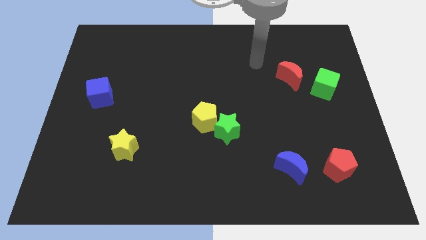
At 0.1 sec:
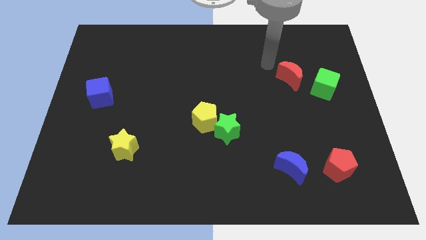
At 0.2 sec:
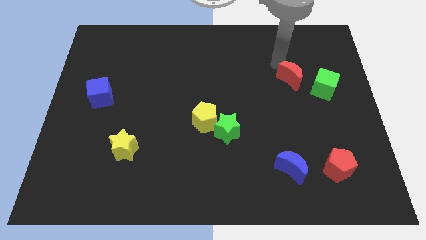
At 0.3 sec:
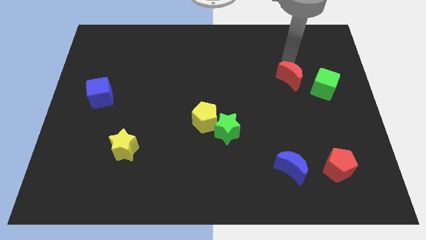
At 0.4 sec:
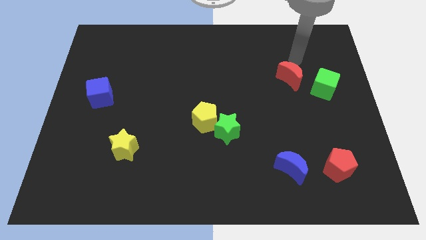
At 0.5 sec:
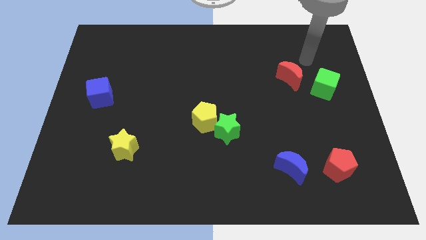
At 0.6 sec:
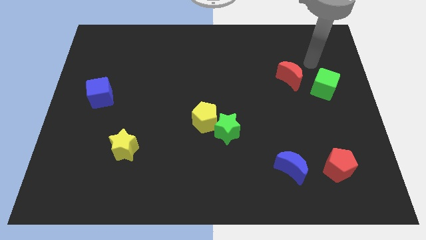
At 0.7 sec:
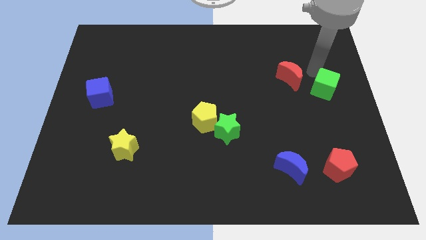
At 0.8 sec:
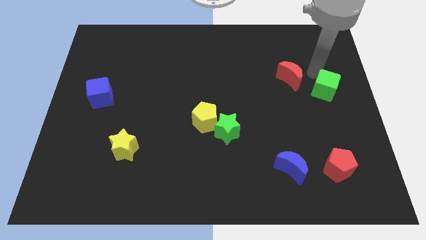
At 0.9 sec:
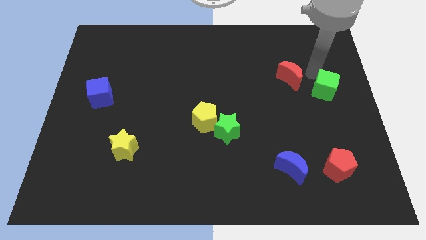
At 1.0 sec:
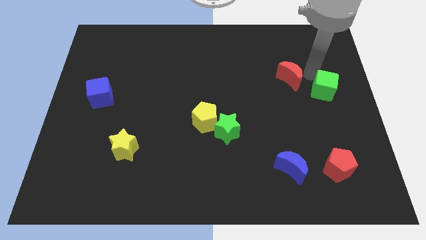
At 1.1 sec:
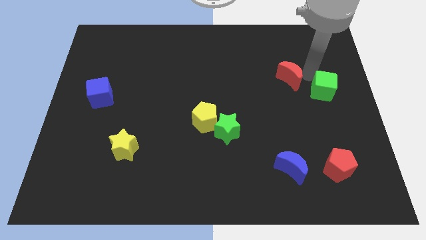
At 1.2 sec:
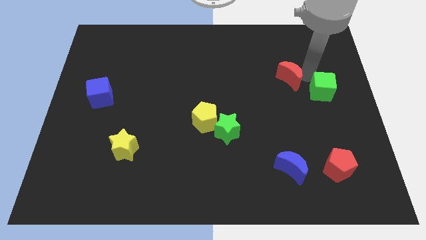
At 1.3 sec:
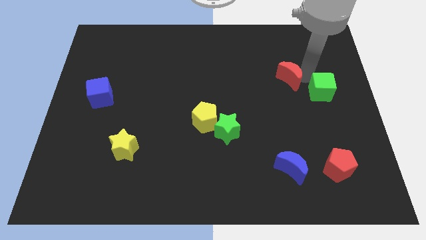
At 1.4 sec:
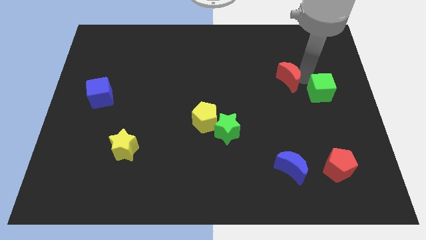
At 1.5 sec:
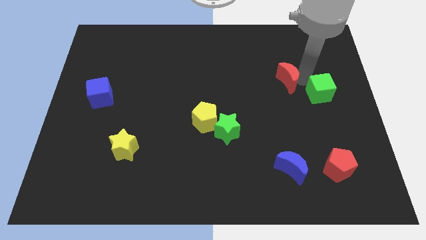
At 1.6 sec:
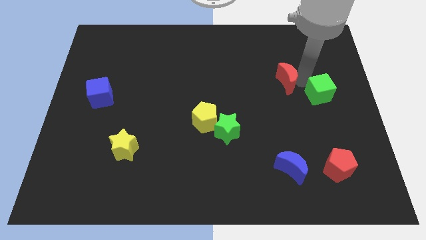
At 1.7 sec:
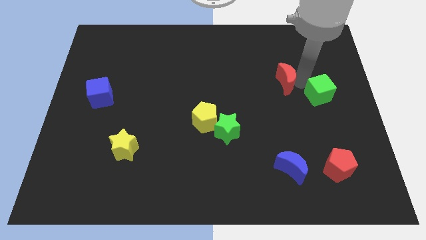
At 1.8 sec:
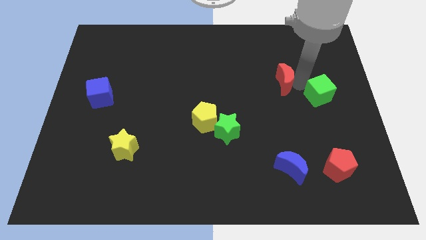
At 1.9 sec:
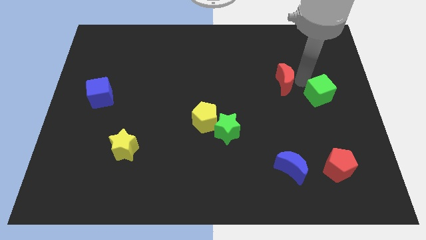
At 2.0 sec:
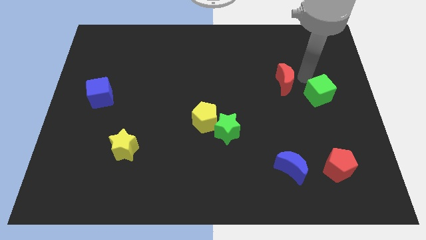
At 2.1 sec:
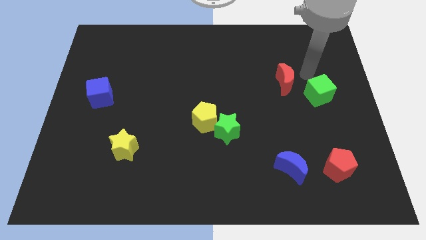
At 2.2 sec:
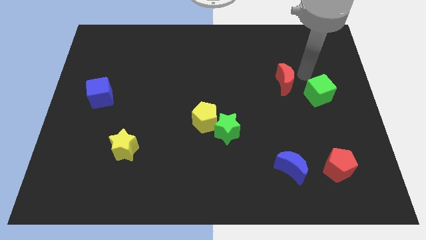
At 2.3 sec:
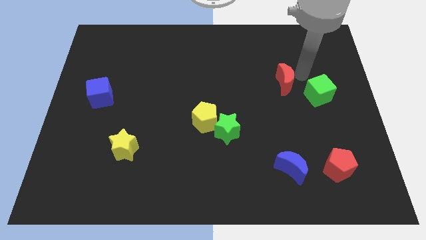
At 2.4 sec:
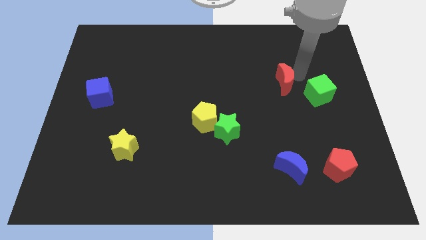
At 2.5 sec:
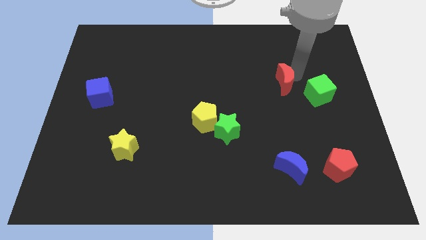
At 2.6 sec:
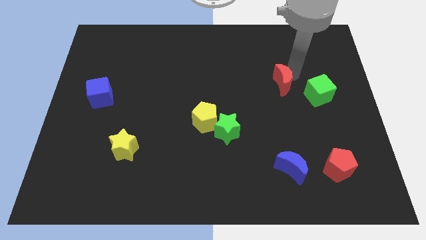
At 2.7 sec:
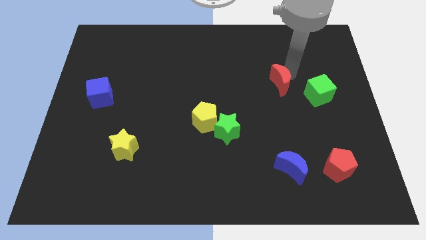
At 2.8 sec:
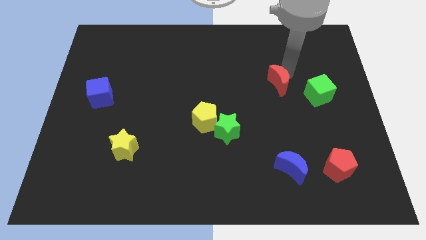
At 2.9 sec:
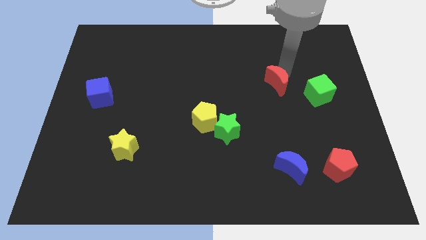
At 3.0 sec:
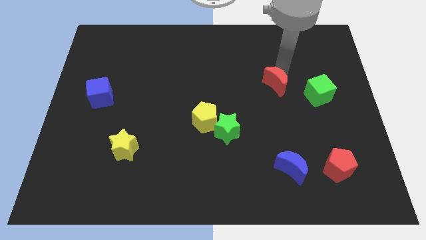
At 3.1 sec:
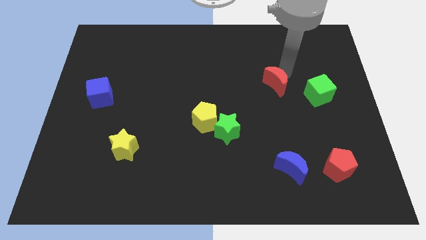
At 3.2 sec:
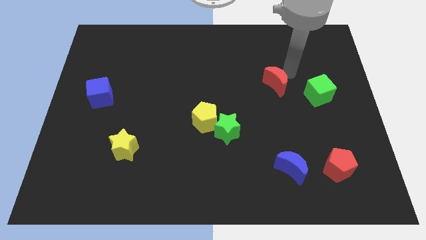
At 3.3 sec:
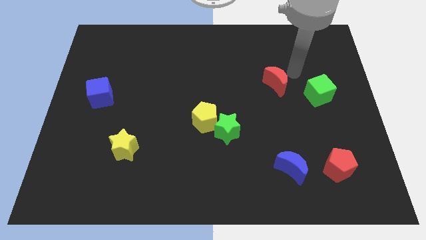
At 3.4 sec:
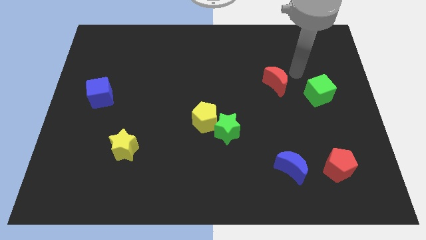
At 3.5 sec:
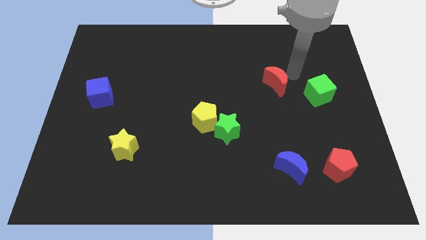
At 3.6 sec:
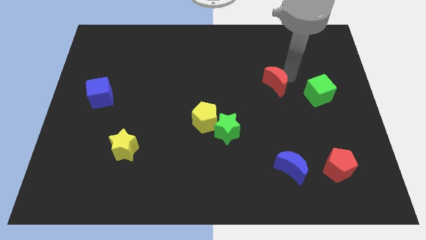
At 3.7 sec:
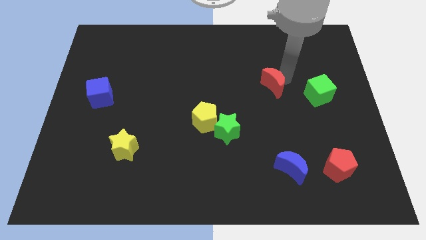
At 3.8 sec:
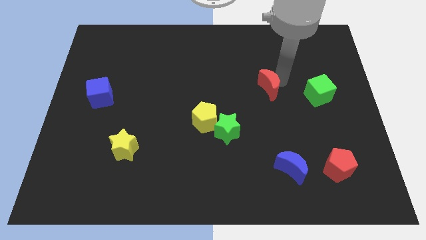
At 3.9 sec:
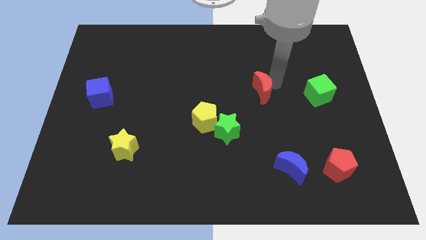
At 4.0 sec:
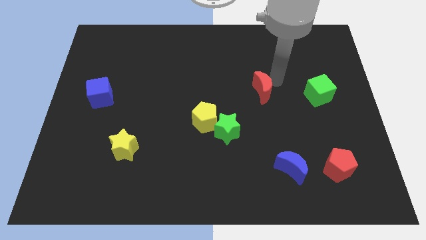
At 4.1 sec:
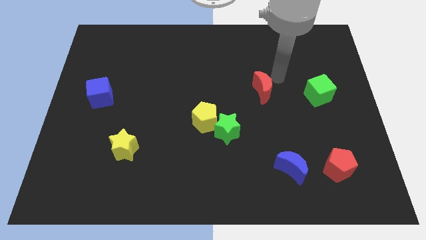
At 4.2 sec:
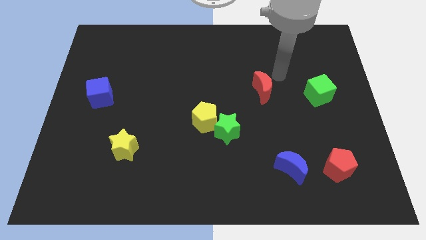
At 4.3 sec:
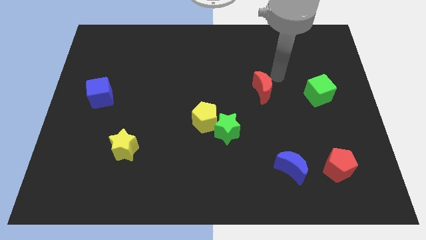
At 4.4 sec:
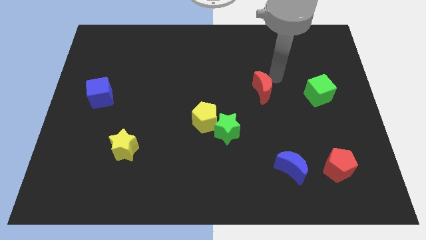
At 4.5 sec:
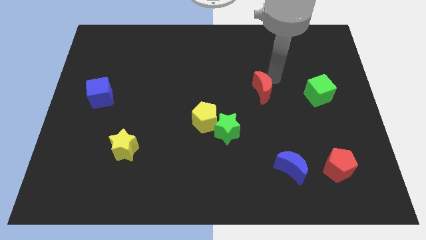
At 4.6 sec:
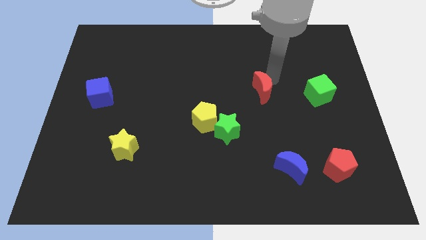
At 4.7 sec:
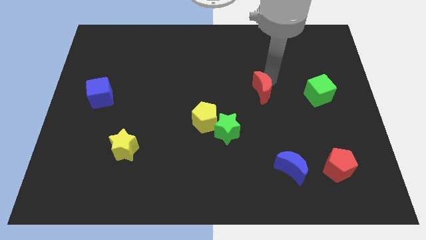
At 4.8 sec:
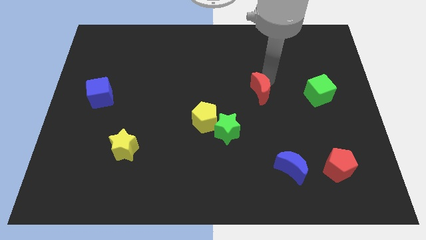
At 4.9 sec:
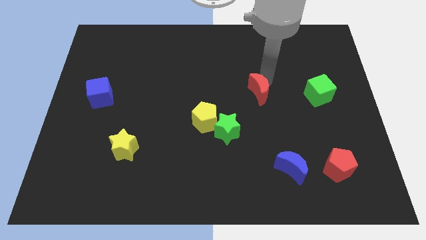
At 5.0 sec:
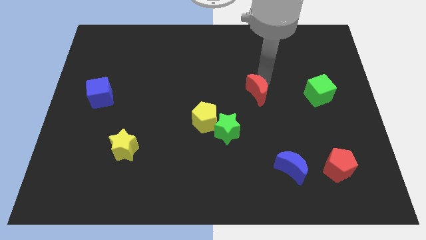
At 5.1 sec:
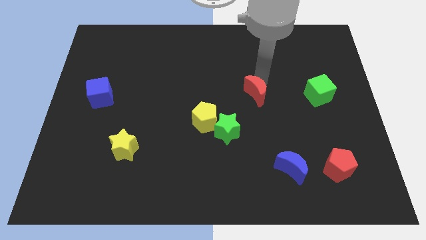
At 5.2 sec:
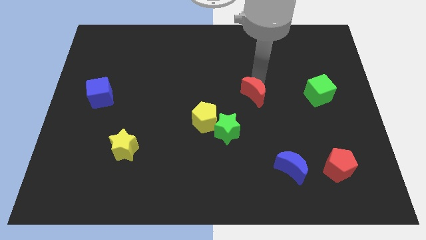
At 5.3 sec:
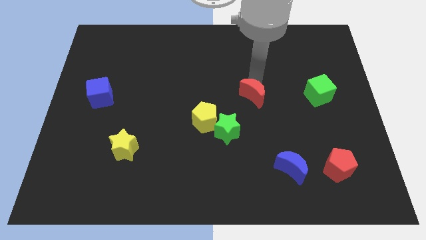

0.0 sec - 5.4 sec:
slide the red moon to the top right of the green star

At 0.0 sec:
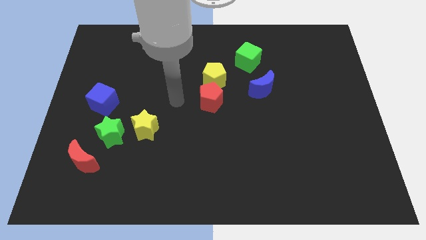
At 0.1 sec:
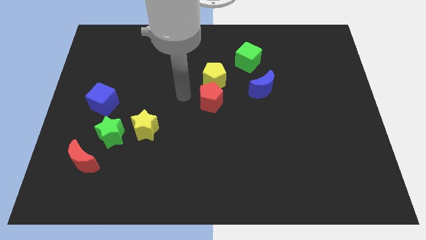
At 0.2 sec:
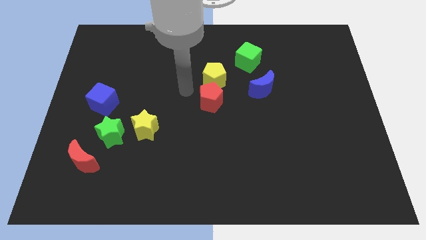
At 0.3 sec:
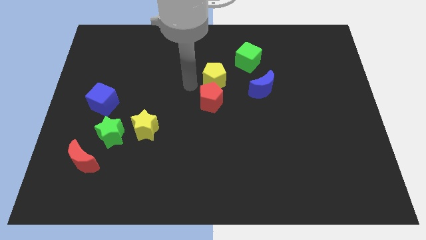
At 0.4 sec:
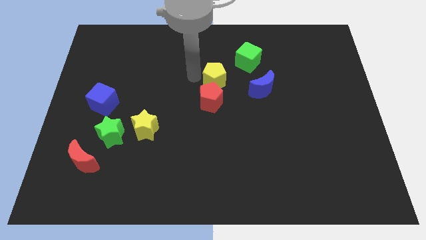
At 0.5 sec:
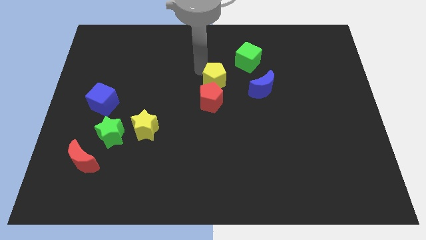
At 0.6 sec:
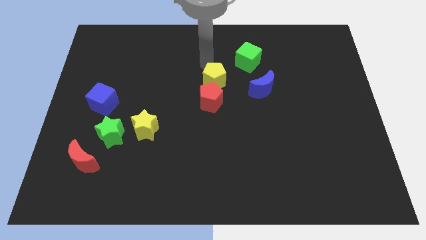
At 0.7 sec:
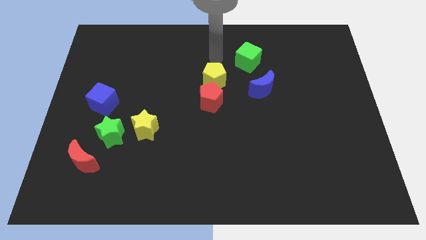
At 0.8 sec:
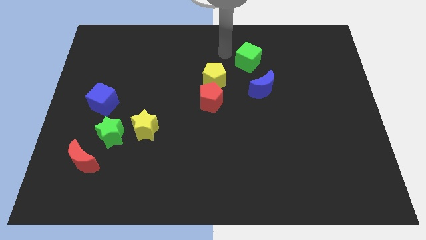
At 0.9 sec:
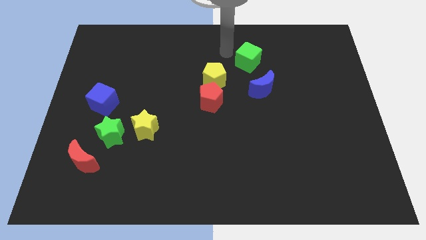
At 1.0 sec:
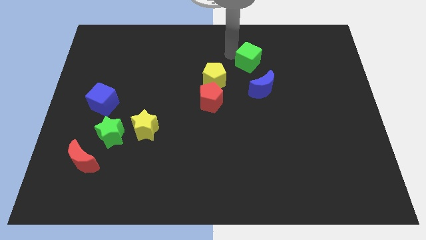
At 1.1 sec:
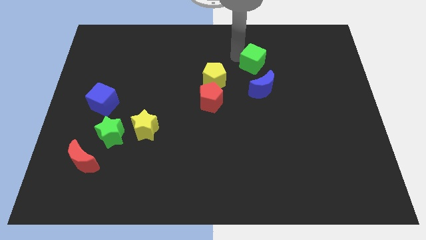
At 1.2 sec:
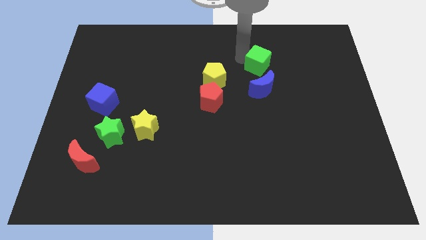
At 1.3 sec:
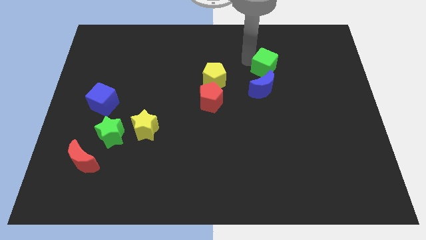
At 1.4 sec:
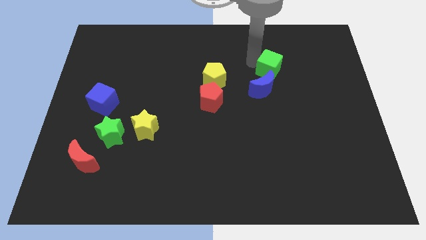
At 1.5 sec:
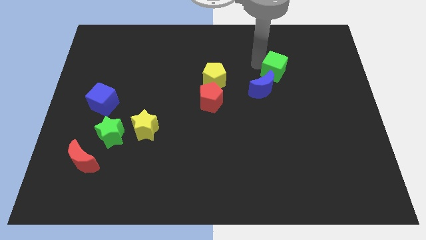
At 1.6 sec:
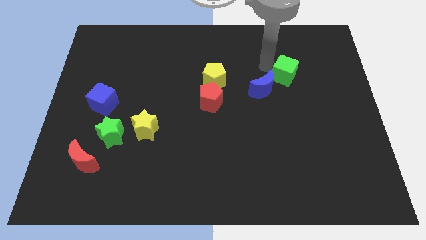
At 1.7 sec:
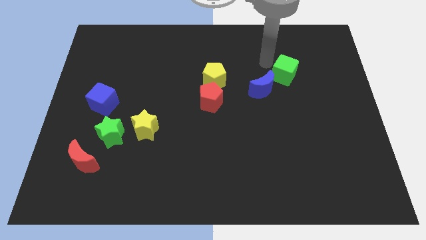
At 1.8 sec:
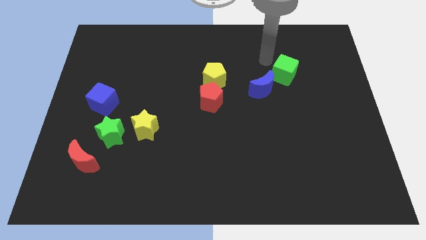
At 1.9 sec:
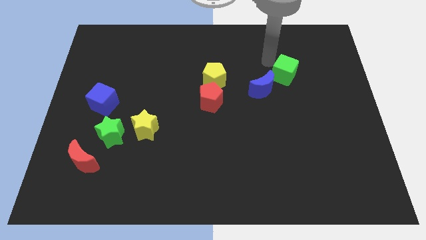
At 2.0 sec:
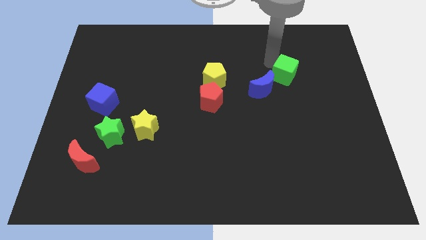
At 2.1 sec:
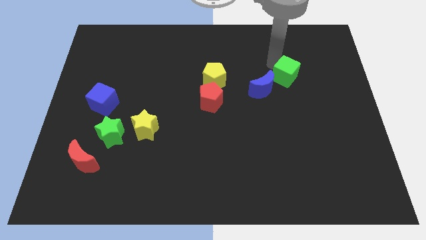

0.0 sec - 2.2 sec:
put the green cube just right of the blue moon
